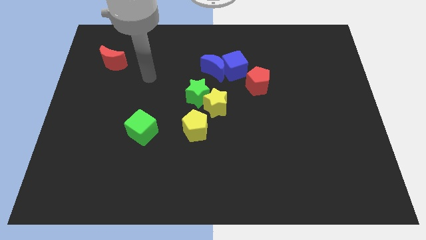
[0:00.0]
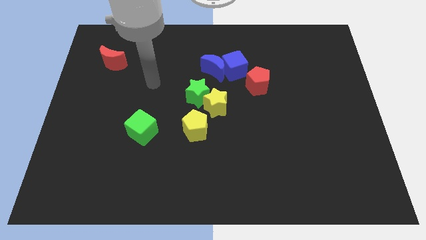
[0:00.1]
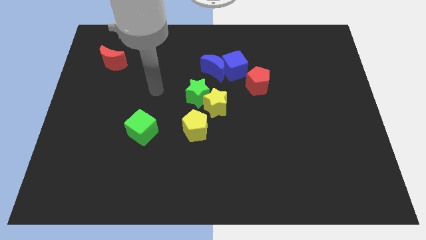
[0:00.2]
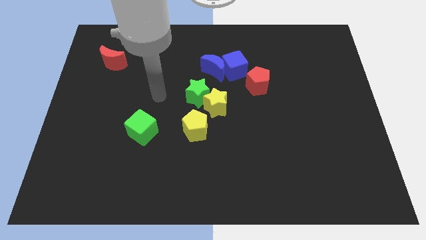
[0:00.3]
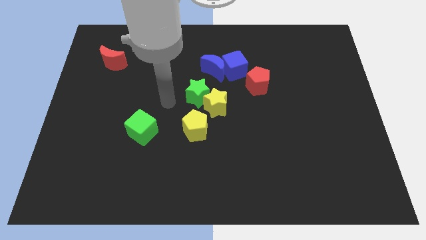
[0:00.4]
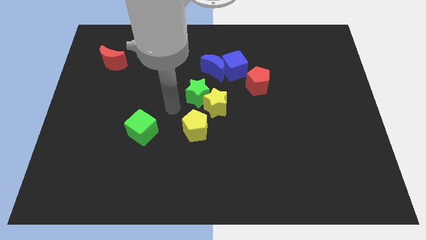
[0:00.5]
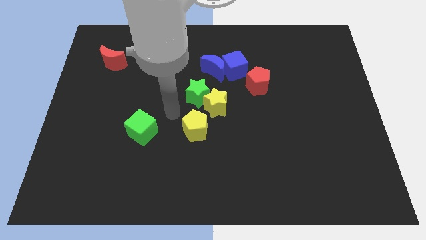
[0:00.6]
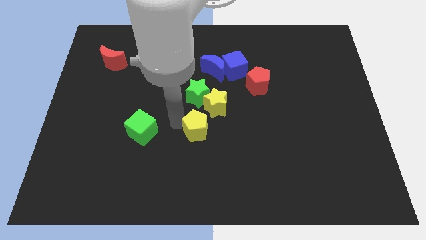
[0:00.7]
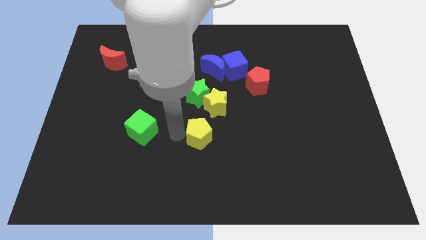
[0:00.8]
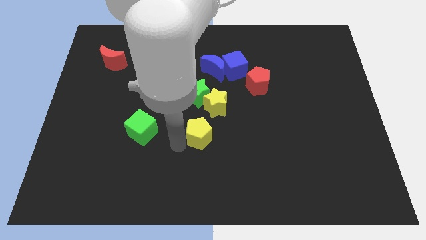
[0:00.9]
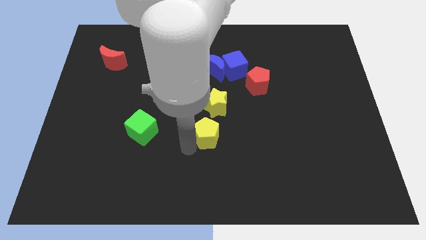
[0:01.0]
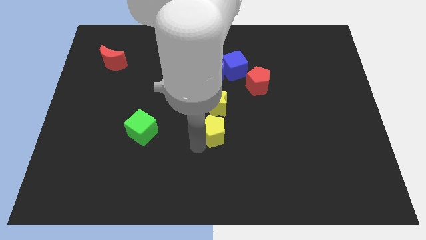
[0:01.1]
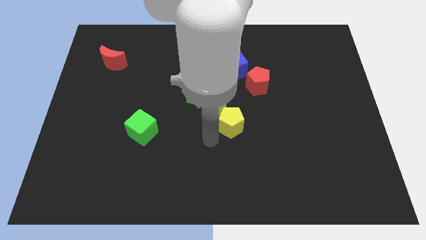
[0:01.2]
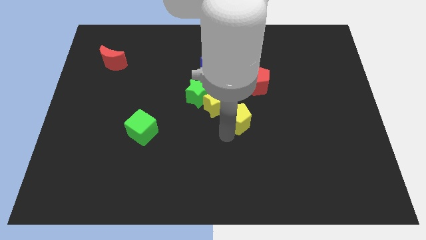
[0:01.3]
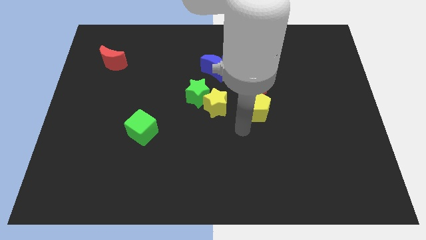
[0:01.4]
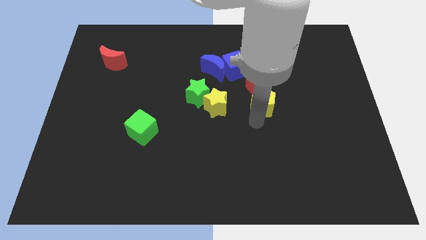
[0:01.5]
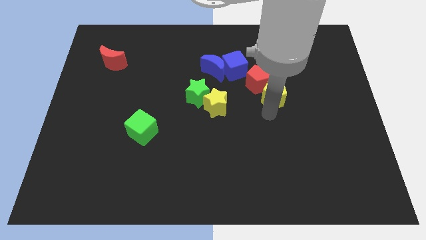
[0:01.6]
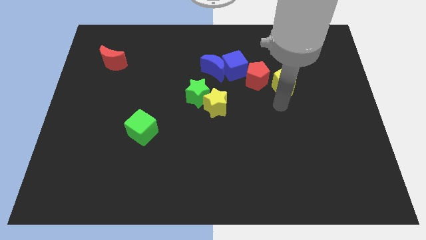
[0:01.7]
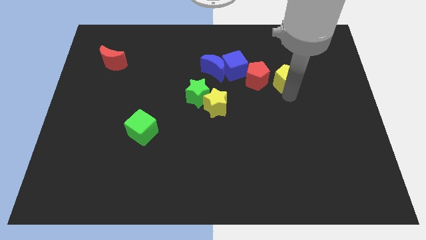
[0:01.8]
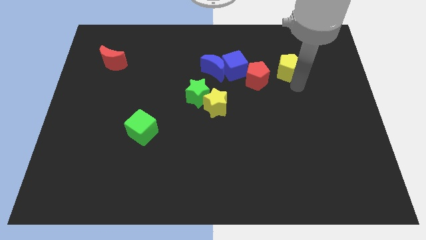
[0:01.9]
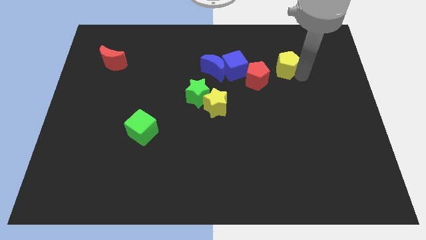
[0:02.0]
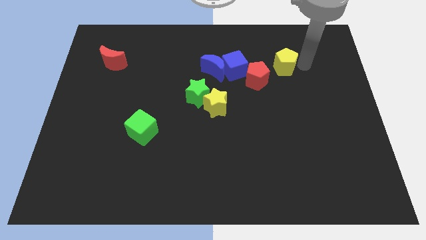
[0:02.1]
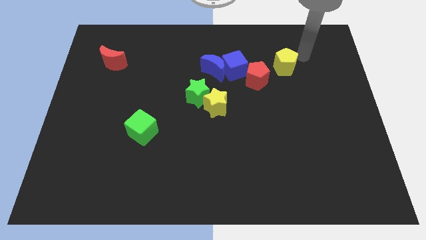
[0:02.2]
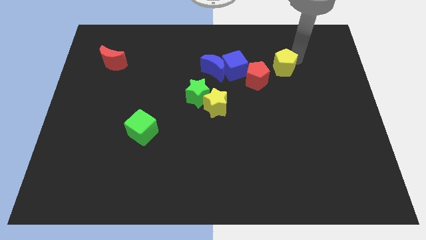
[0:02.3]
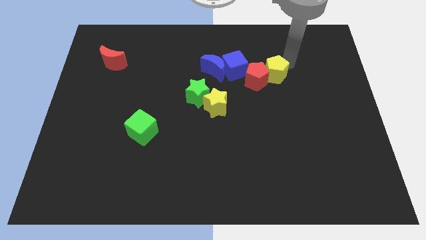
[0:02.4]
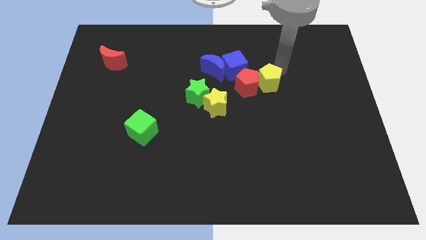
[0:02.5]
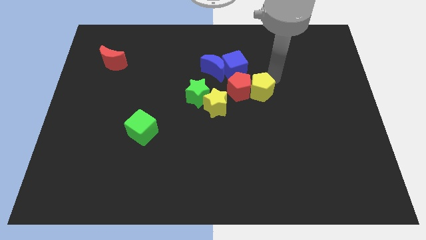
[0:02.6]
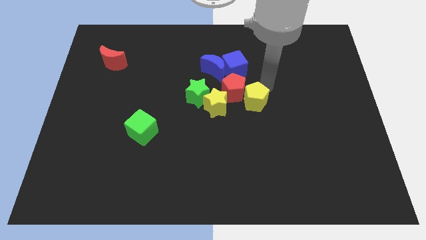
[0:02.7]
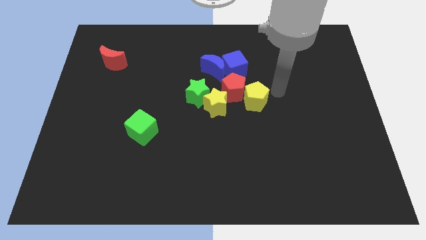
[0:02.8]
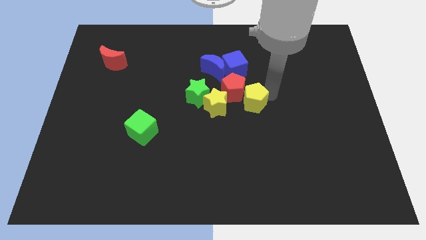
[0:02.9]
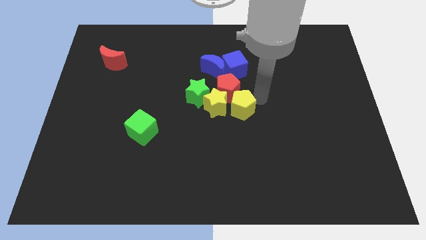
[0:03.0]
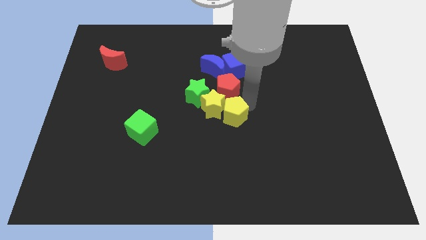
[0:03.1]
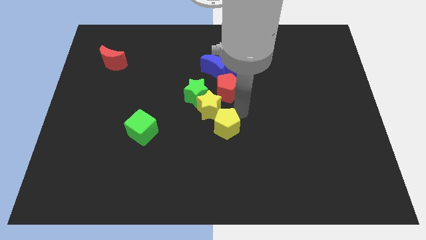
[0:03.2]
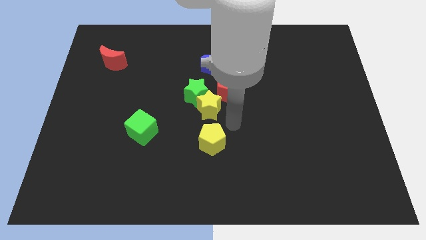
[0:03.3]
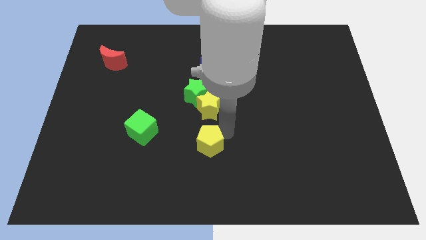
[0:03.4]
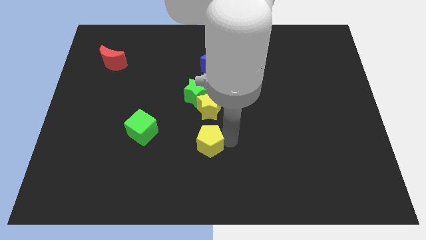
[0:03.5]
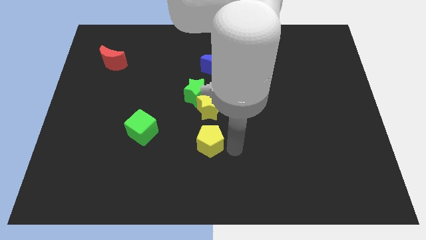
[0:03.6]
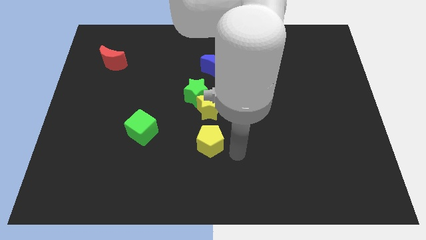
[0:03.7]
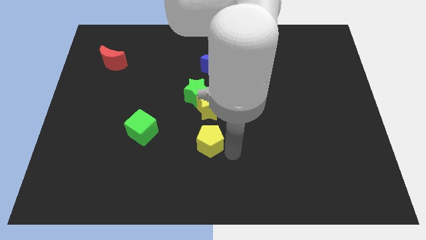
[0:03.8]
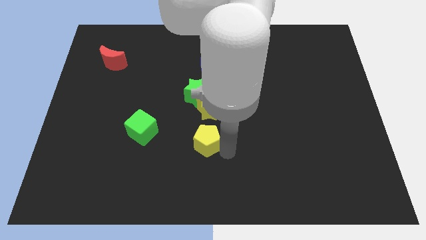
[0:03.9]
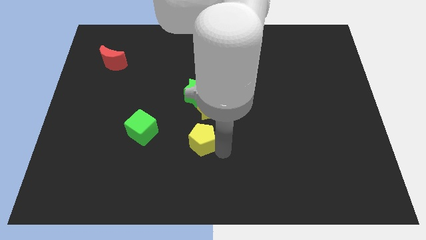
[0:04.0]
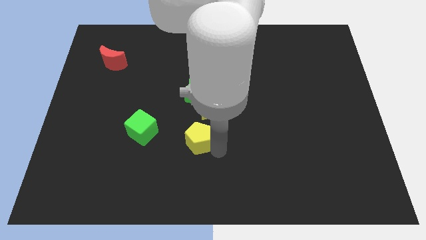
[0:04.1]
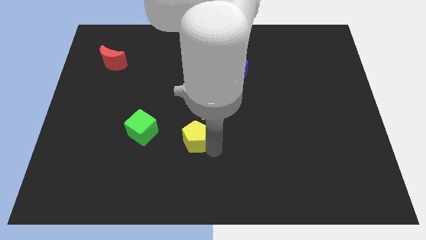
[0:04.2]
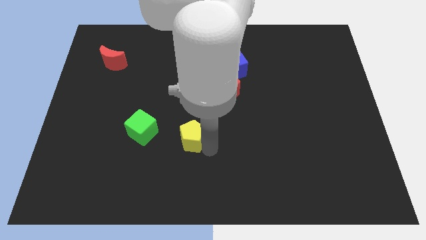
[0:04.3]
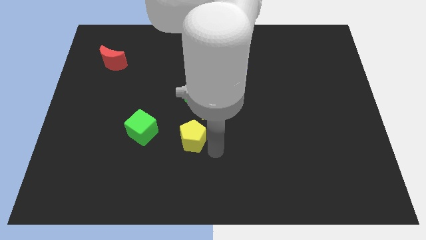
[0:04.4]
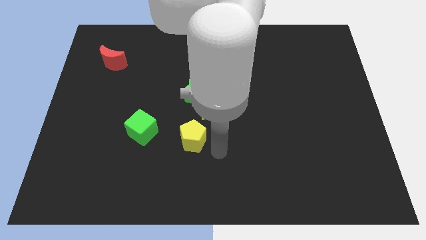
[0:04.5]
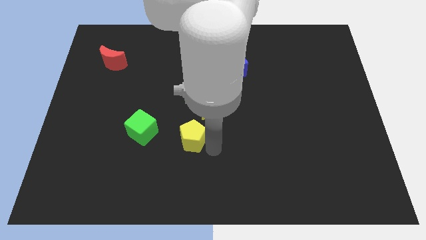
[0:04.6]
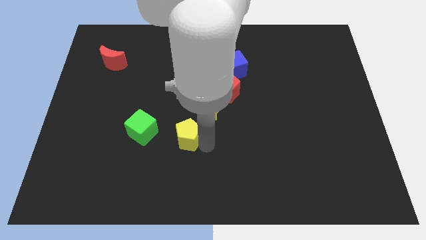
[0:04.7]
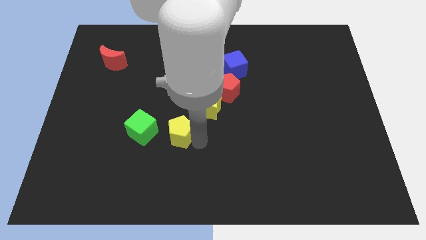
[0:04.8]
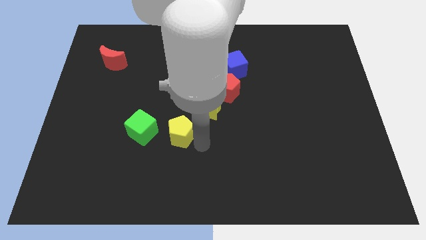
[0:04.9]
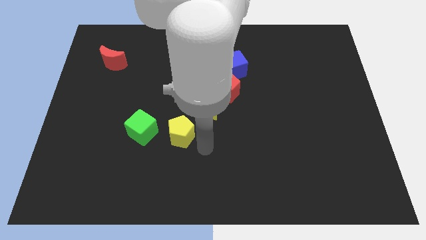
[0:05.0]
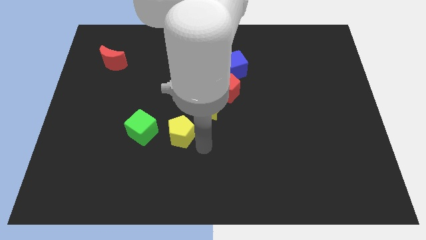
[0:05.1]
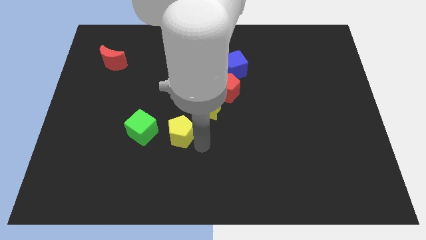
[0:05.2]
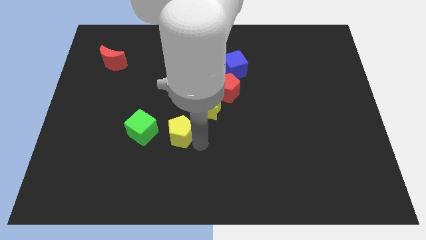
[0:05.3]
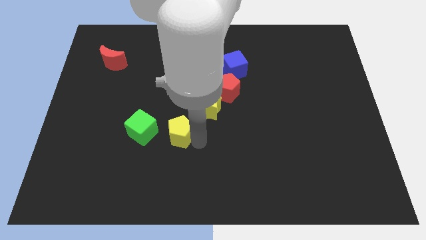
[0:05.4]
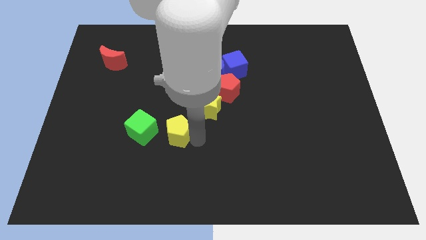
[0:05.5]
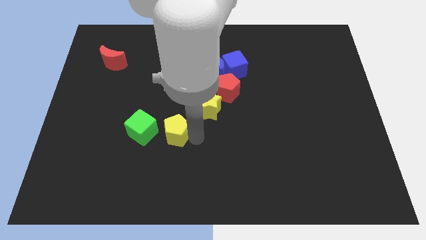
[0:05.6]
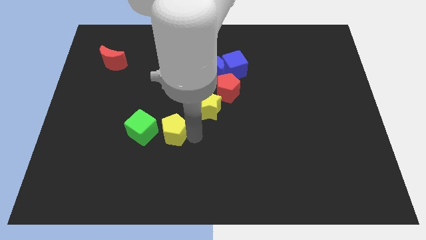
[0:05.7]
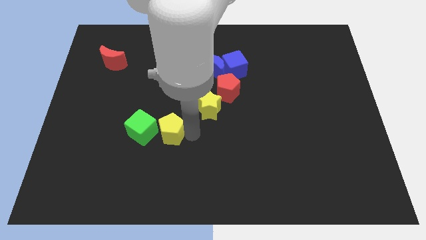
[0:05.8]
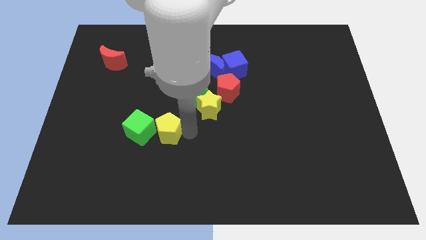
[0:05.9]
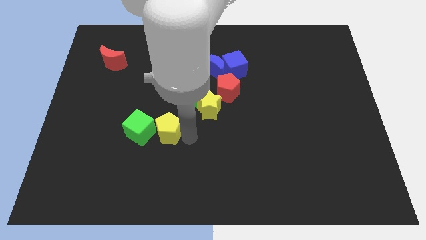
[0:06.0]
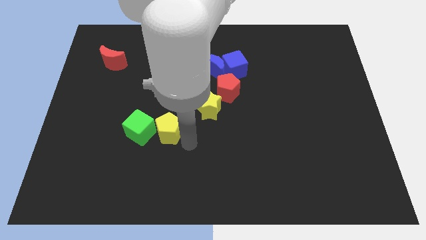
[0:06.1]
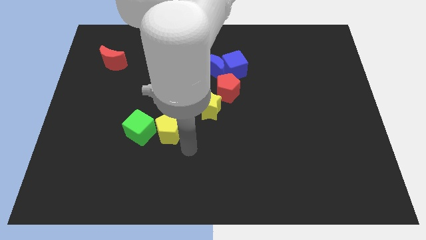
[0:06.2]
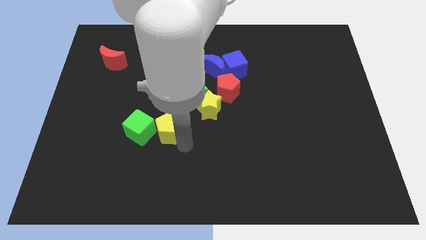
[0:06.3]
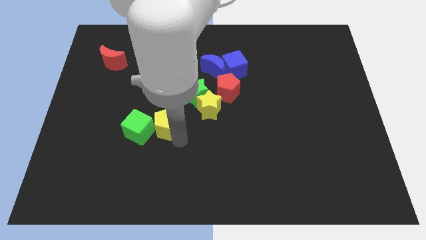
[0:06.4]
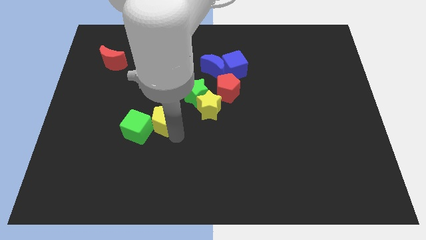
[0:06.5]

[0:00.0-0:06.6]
push the yellow pentagon a little bit to the left

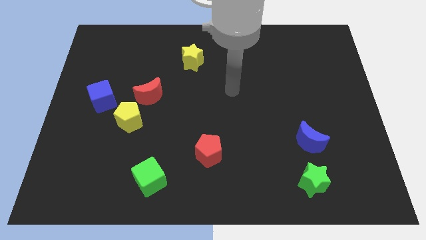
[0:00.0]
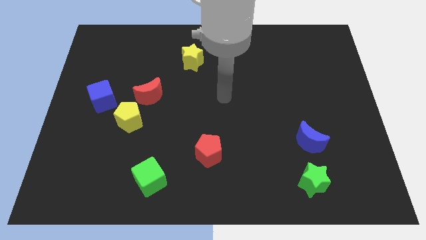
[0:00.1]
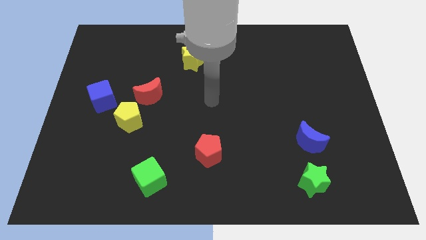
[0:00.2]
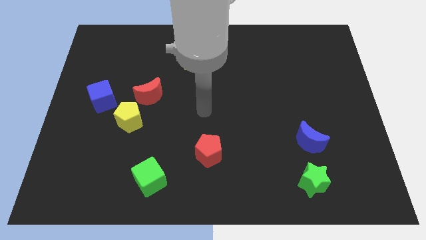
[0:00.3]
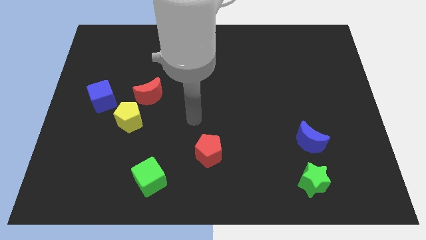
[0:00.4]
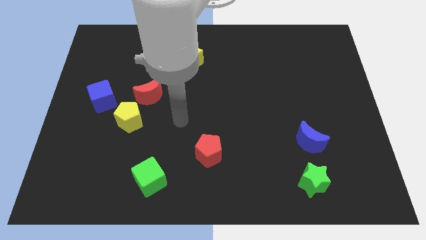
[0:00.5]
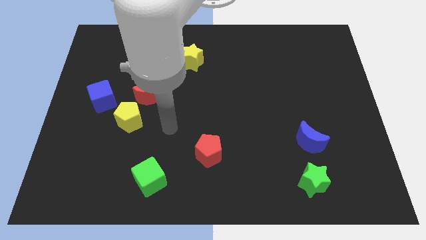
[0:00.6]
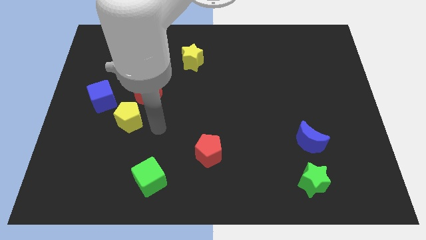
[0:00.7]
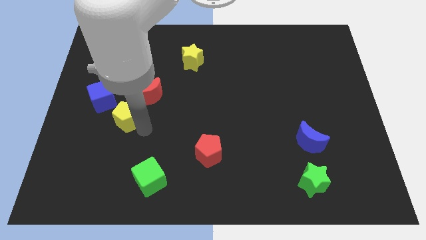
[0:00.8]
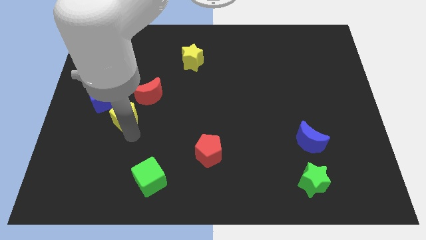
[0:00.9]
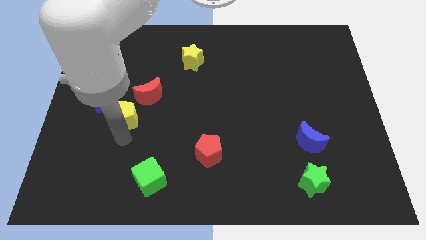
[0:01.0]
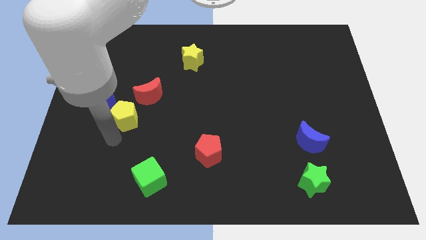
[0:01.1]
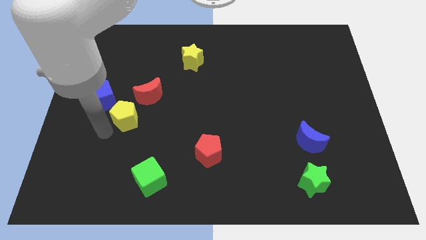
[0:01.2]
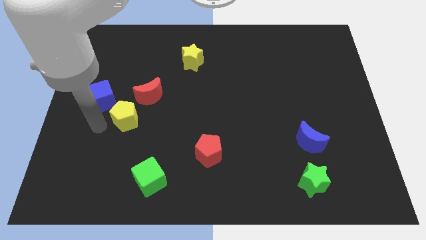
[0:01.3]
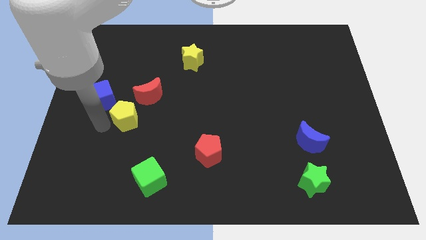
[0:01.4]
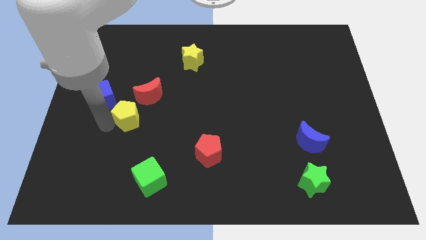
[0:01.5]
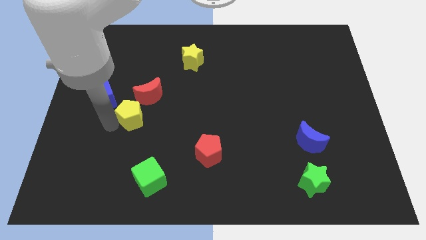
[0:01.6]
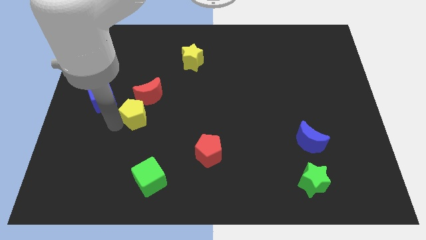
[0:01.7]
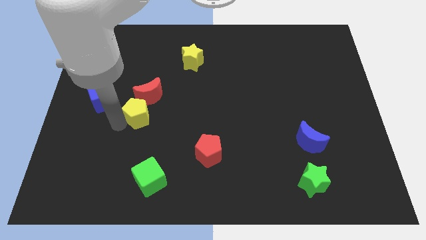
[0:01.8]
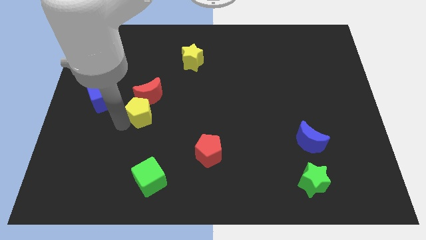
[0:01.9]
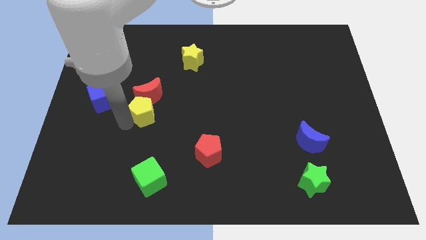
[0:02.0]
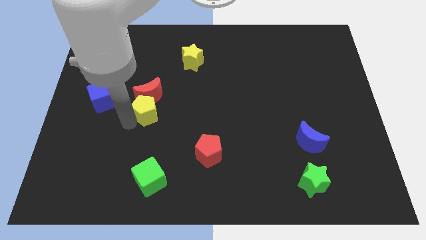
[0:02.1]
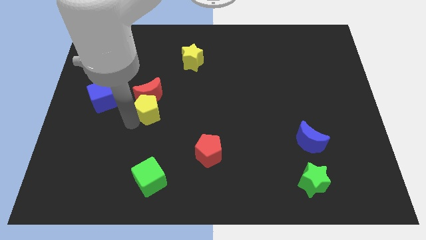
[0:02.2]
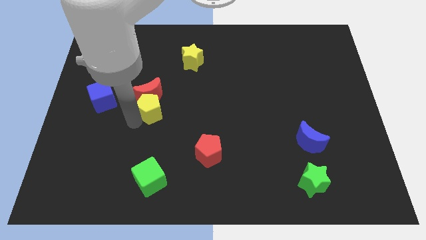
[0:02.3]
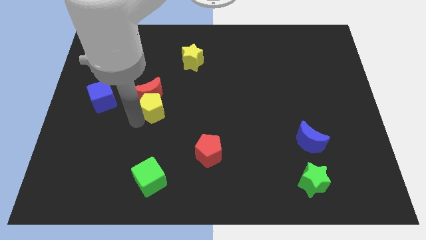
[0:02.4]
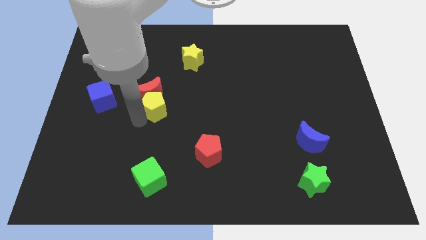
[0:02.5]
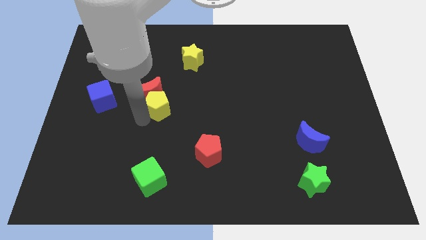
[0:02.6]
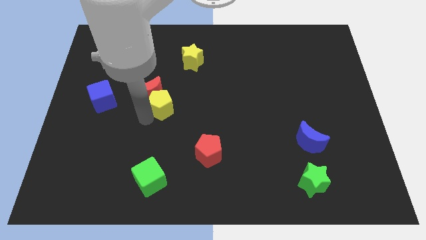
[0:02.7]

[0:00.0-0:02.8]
move the yellow pentagon up and to the right a bit
